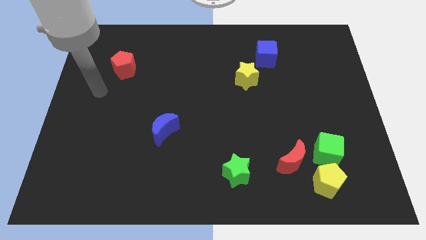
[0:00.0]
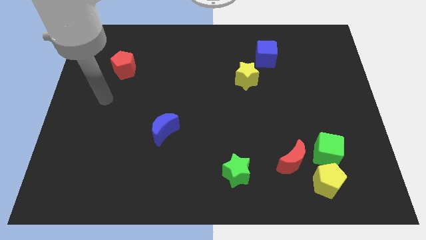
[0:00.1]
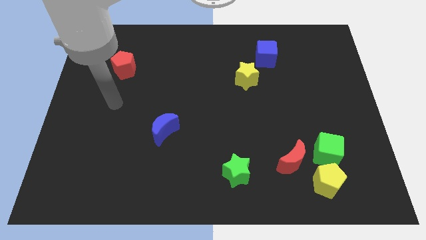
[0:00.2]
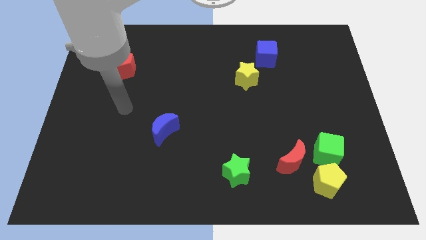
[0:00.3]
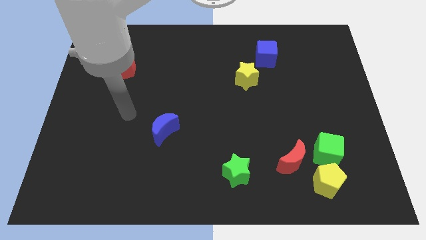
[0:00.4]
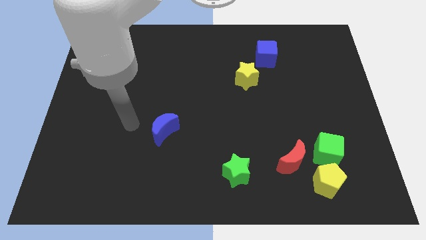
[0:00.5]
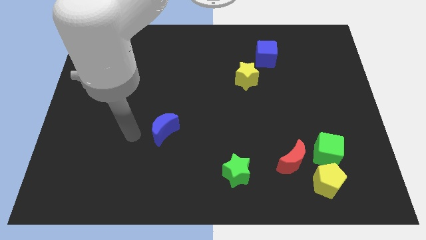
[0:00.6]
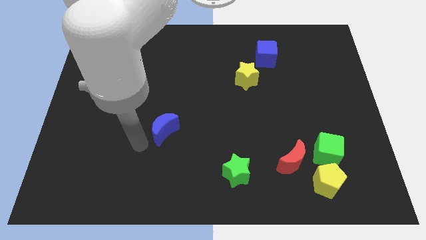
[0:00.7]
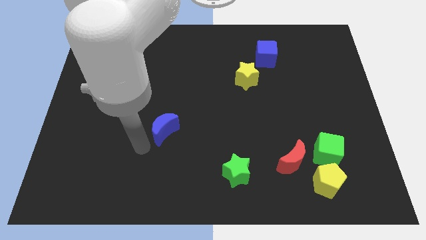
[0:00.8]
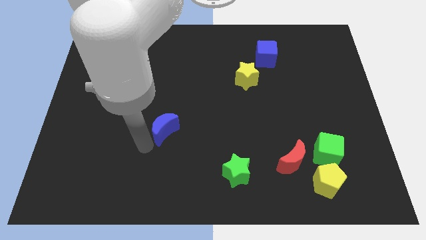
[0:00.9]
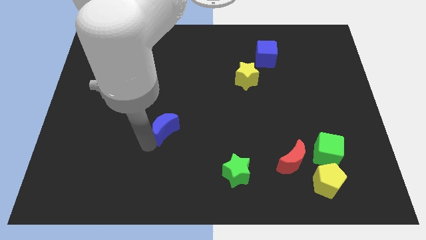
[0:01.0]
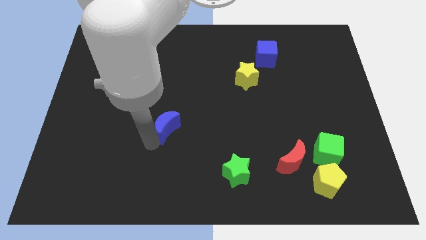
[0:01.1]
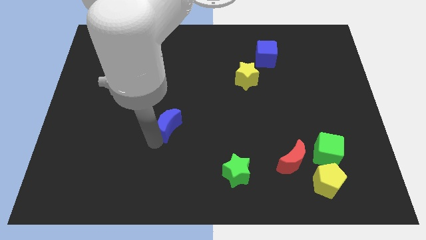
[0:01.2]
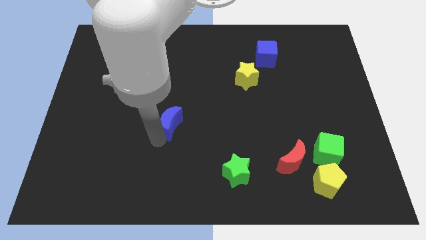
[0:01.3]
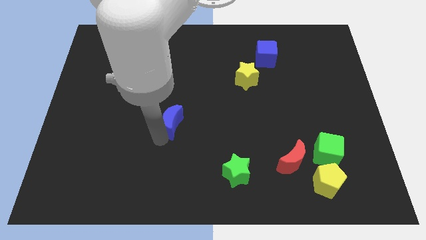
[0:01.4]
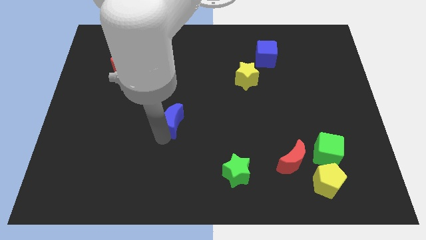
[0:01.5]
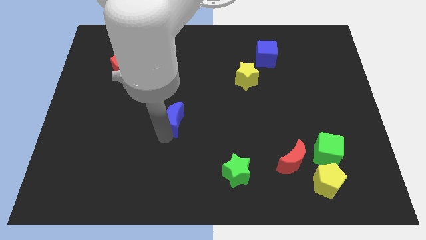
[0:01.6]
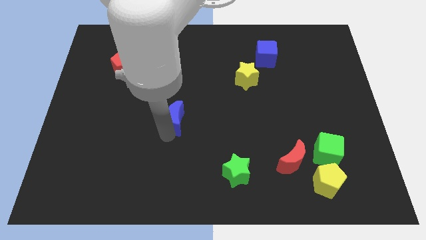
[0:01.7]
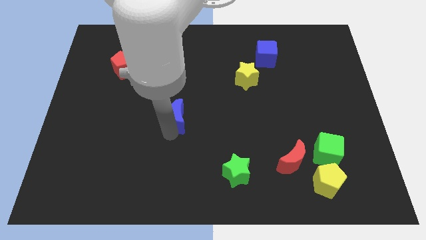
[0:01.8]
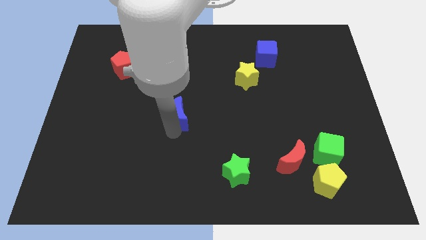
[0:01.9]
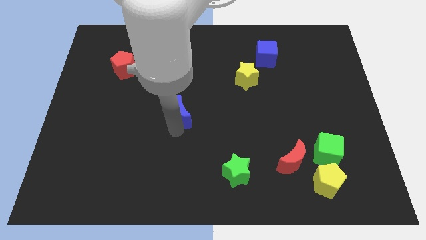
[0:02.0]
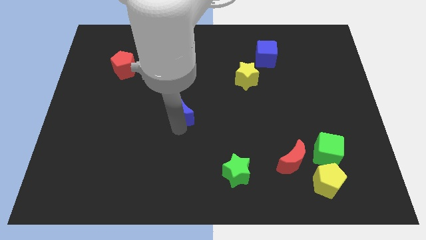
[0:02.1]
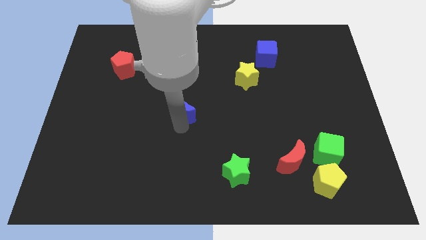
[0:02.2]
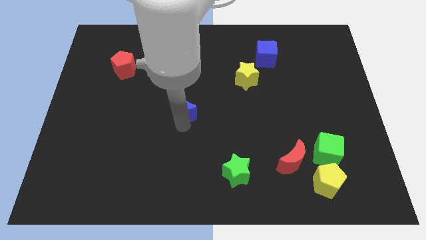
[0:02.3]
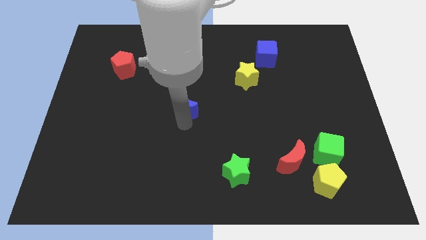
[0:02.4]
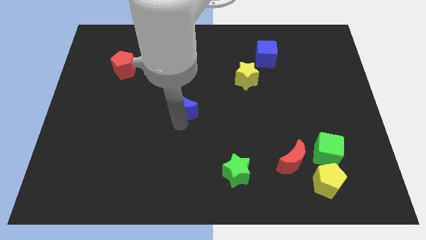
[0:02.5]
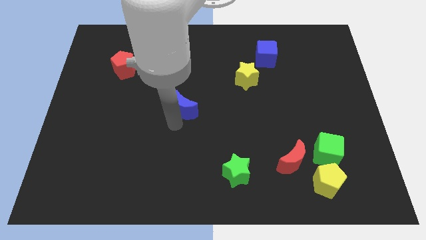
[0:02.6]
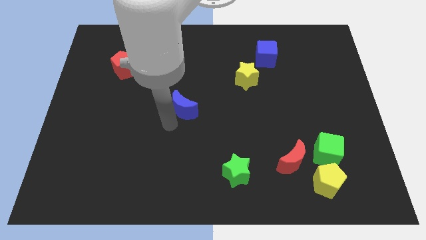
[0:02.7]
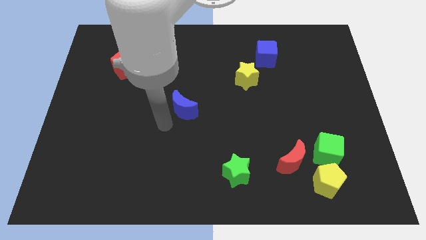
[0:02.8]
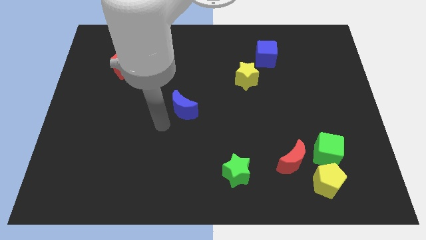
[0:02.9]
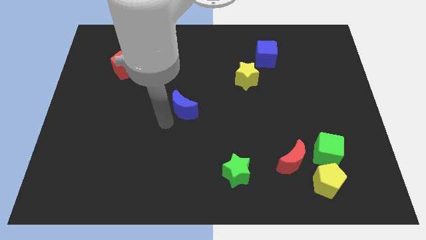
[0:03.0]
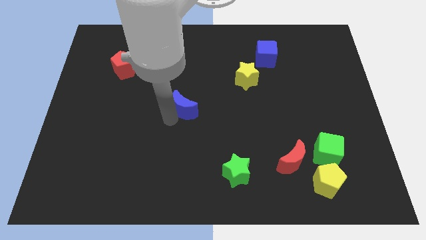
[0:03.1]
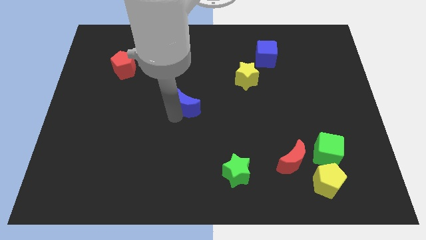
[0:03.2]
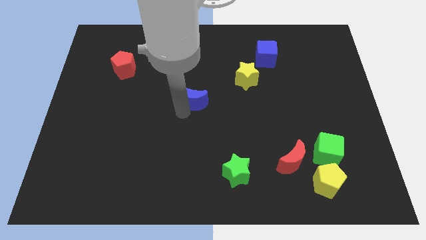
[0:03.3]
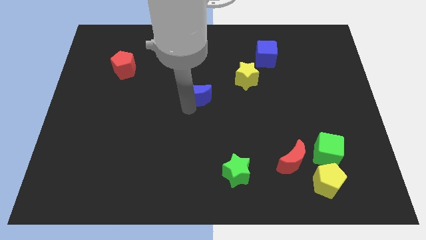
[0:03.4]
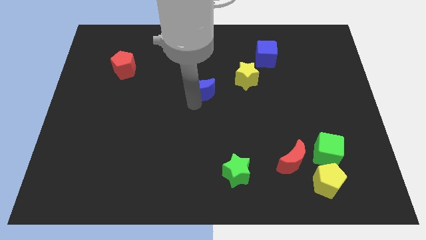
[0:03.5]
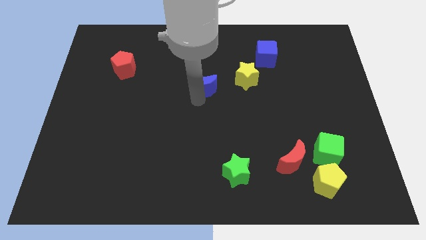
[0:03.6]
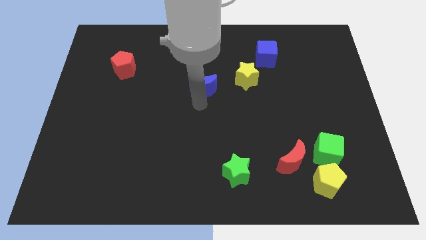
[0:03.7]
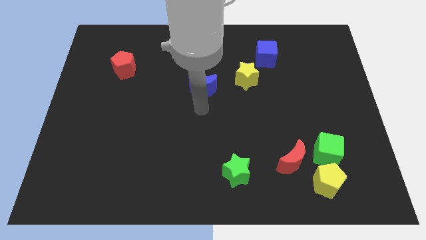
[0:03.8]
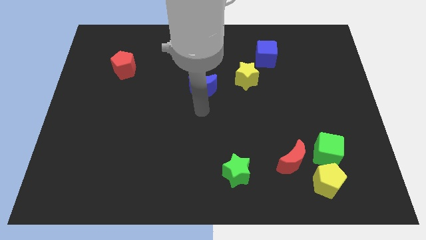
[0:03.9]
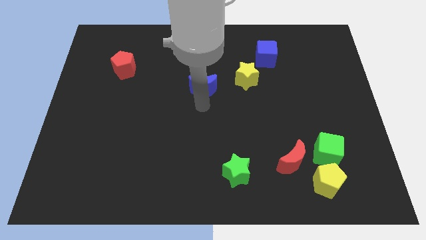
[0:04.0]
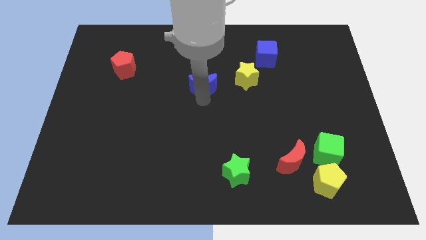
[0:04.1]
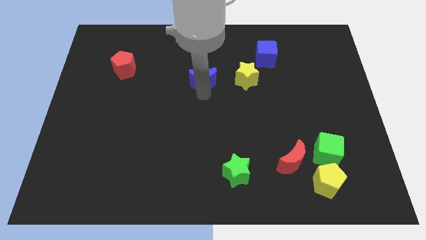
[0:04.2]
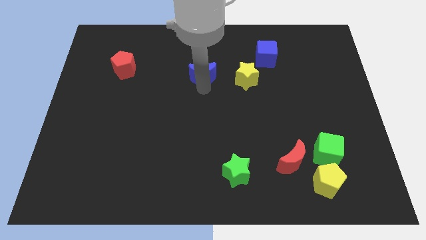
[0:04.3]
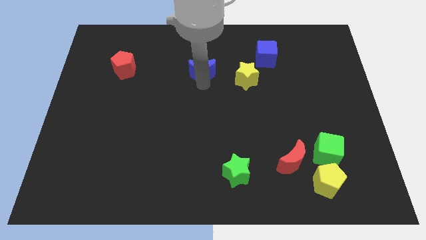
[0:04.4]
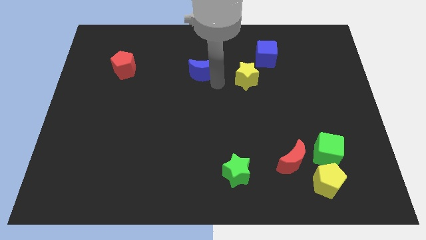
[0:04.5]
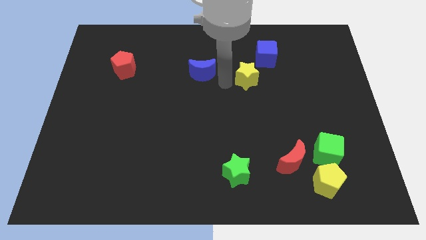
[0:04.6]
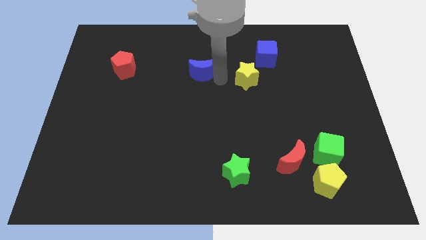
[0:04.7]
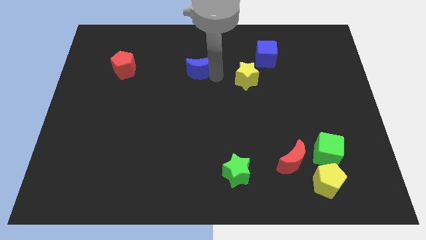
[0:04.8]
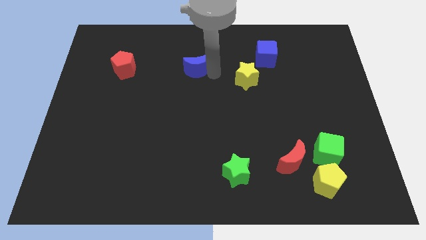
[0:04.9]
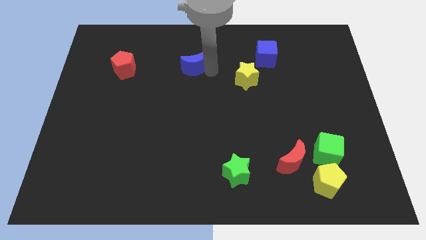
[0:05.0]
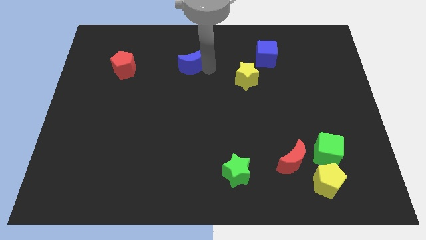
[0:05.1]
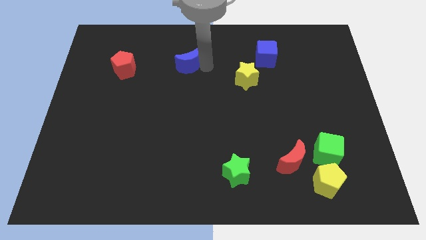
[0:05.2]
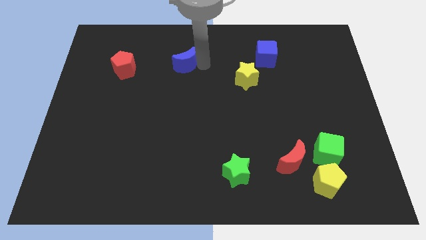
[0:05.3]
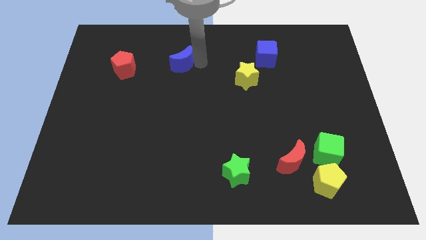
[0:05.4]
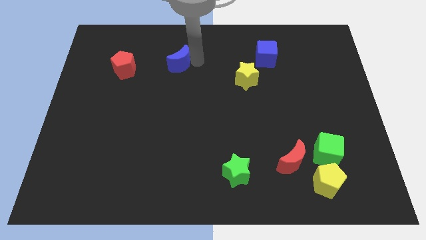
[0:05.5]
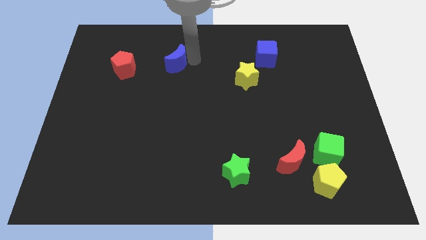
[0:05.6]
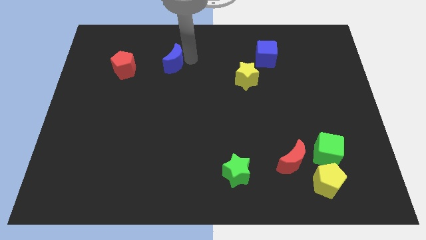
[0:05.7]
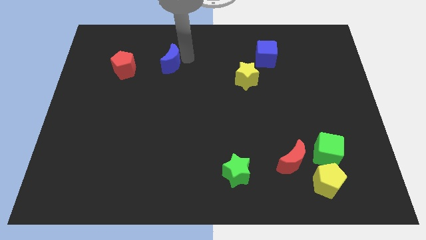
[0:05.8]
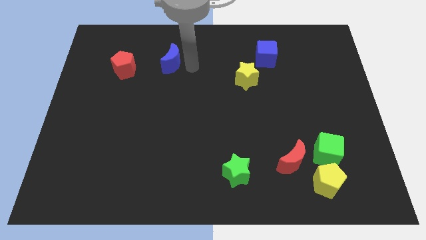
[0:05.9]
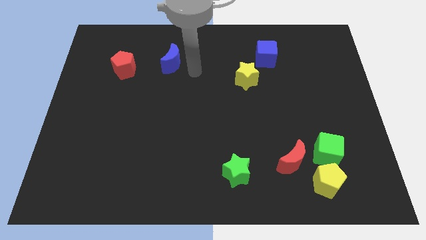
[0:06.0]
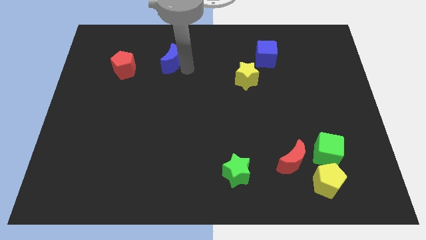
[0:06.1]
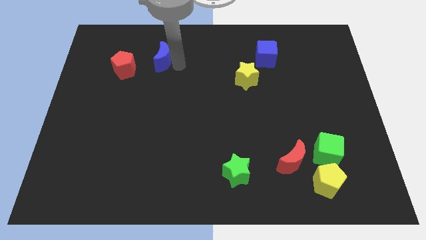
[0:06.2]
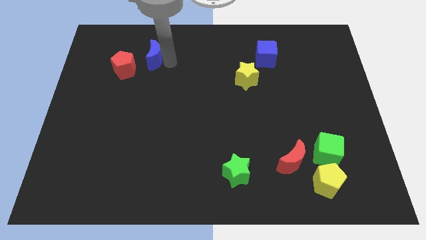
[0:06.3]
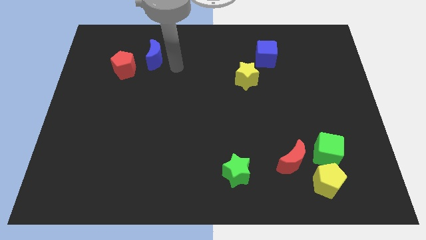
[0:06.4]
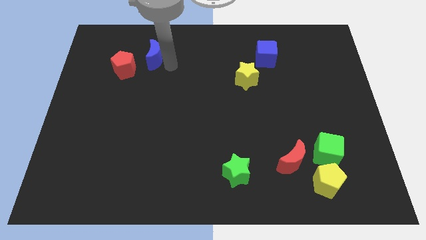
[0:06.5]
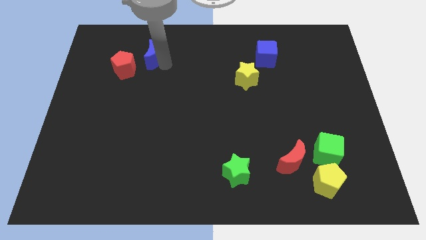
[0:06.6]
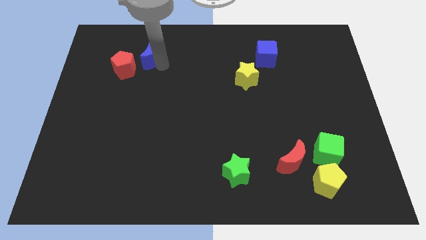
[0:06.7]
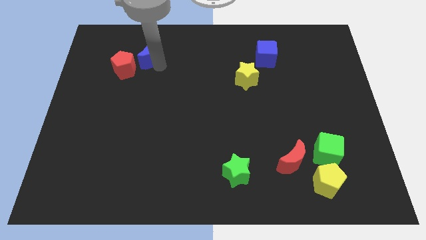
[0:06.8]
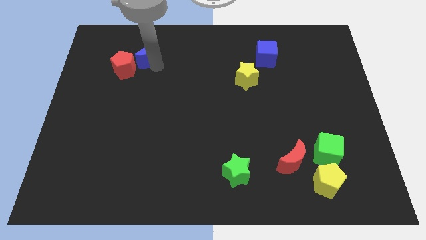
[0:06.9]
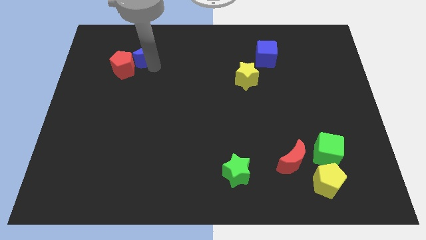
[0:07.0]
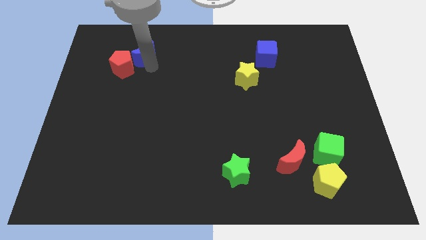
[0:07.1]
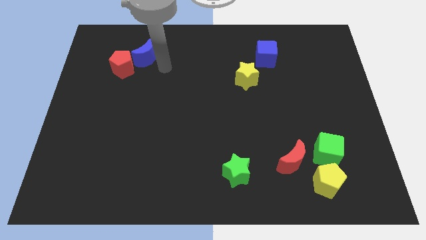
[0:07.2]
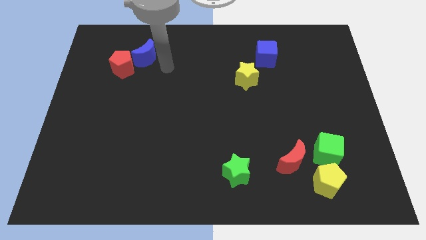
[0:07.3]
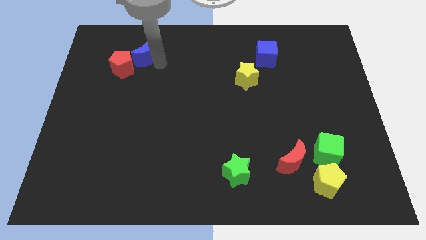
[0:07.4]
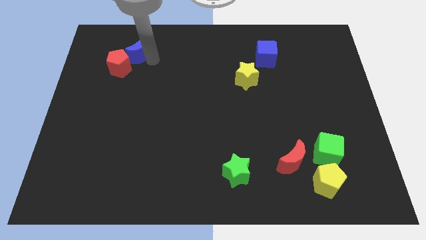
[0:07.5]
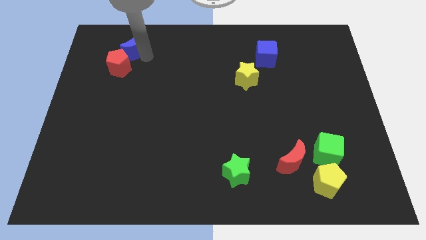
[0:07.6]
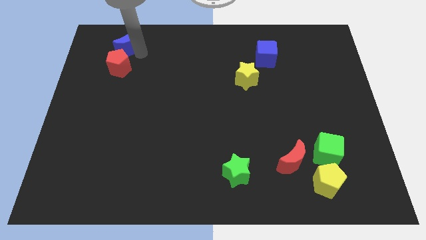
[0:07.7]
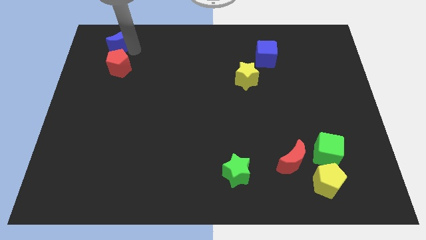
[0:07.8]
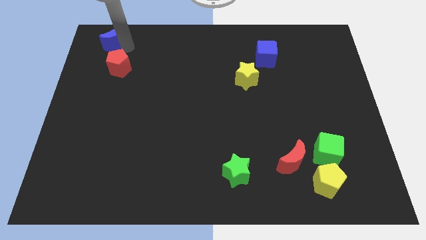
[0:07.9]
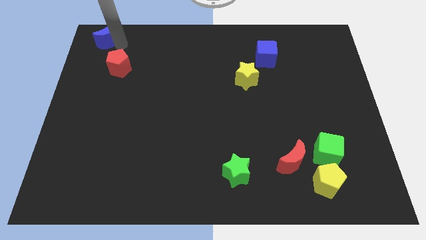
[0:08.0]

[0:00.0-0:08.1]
move the blue moon to the top left corner
